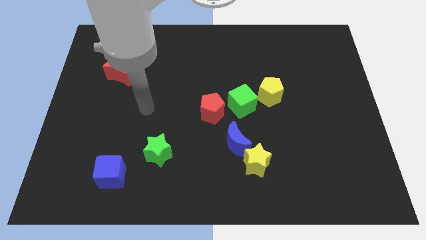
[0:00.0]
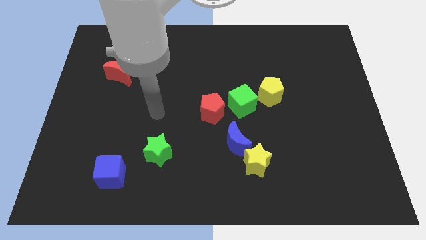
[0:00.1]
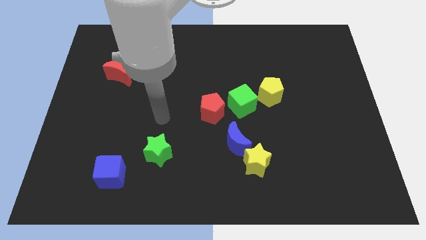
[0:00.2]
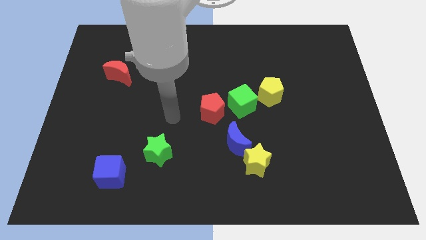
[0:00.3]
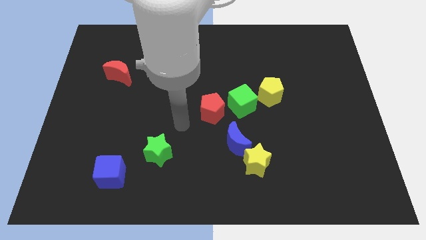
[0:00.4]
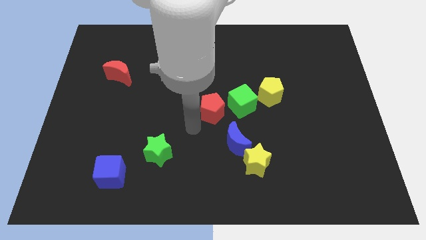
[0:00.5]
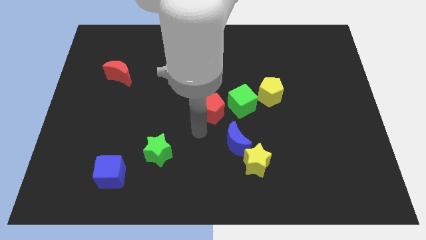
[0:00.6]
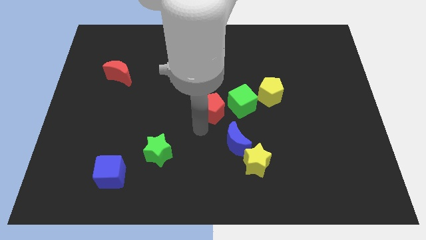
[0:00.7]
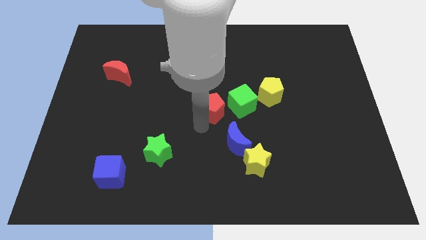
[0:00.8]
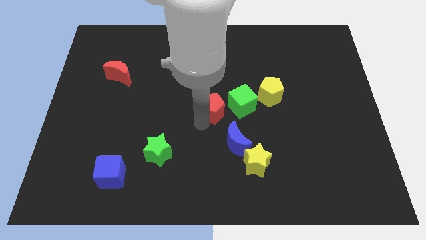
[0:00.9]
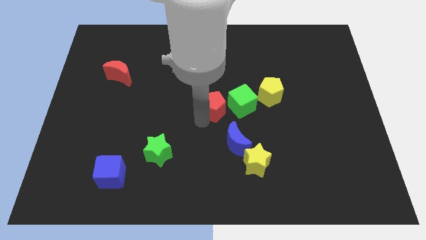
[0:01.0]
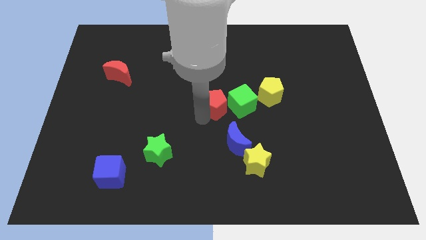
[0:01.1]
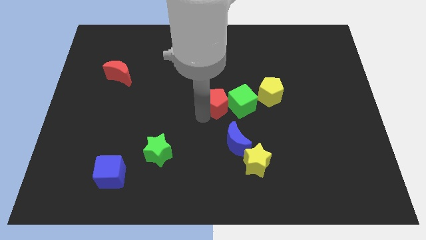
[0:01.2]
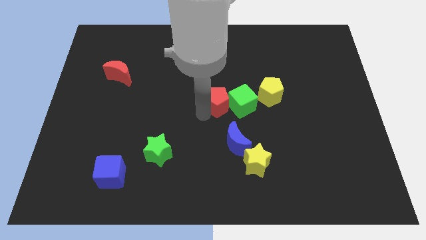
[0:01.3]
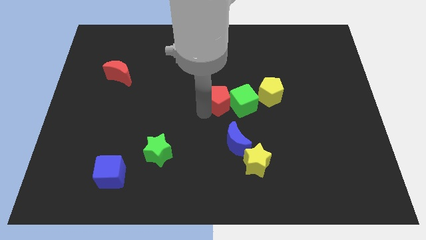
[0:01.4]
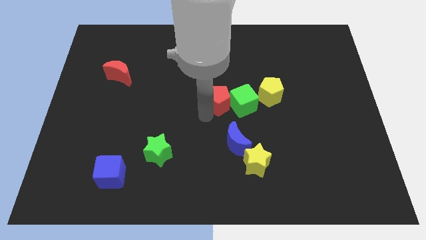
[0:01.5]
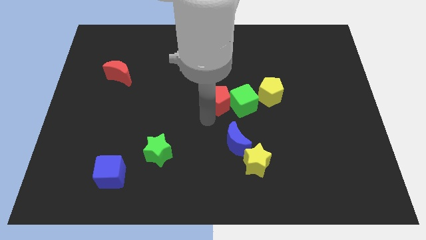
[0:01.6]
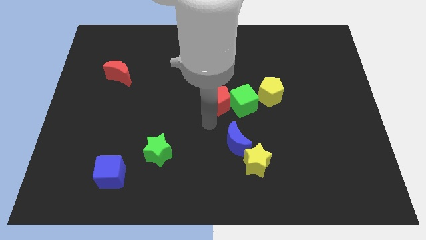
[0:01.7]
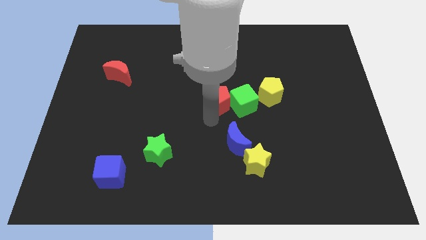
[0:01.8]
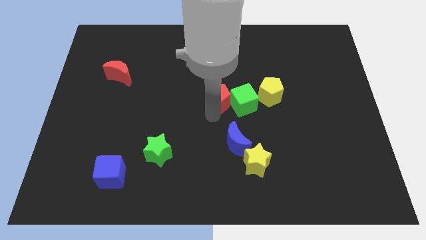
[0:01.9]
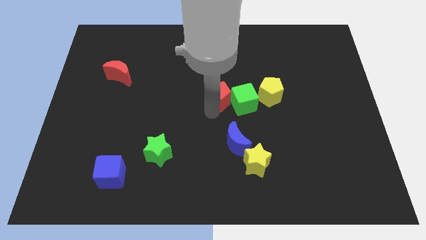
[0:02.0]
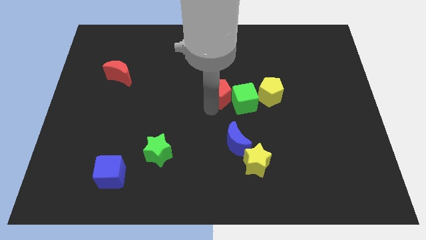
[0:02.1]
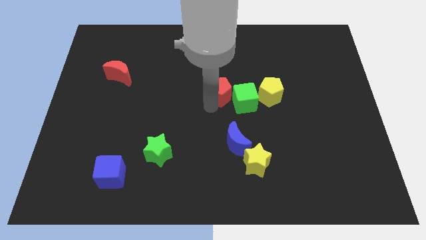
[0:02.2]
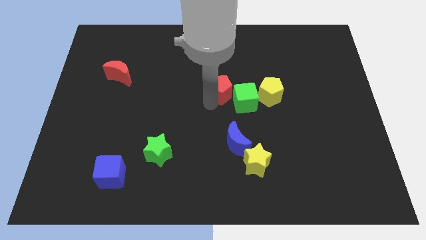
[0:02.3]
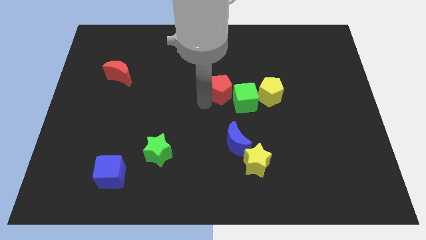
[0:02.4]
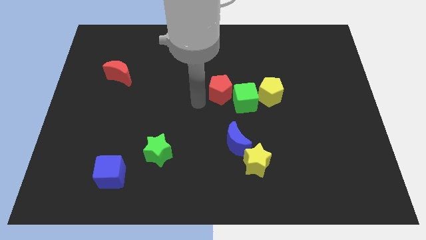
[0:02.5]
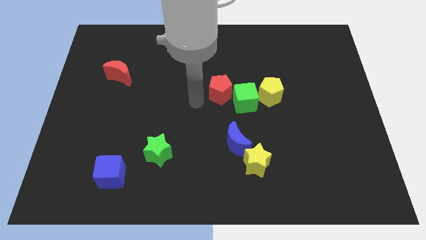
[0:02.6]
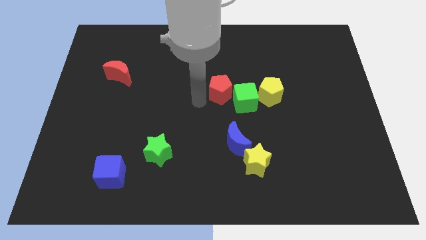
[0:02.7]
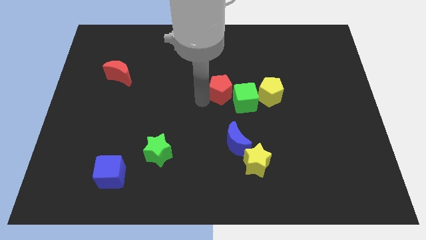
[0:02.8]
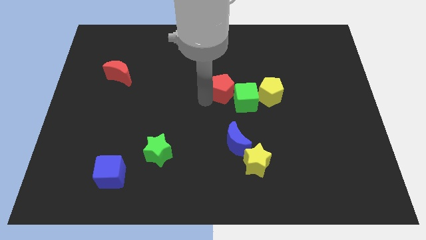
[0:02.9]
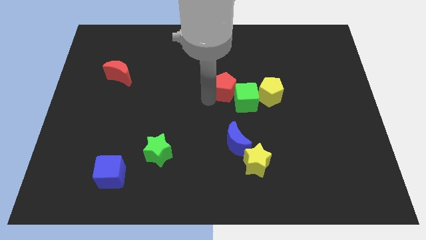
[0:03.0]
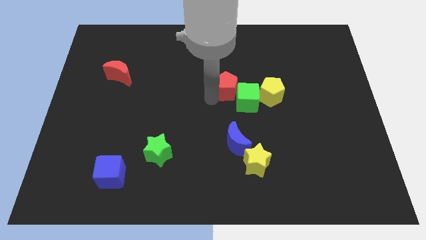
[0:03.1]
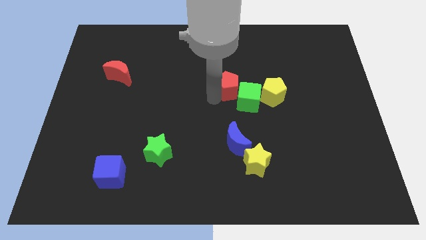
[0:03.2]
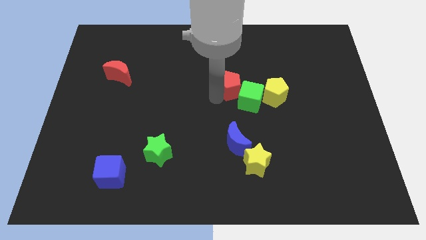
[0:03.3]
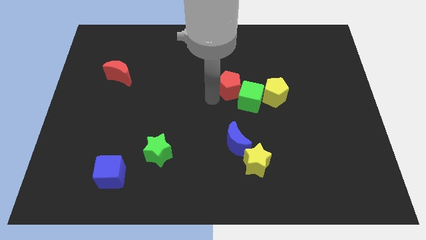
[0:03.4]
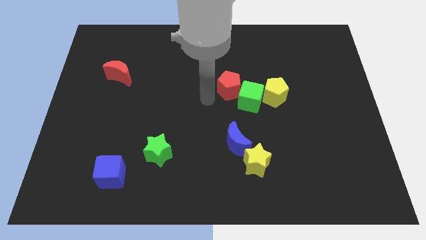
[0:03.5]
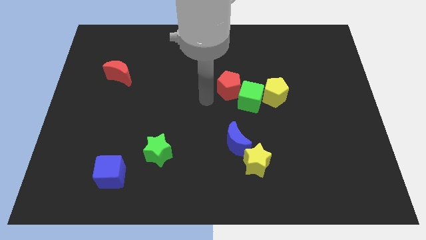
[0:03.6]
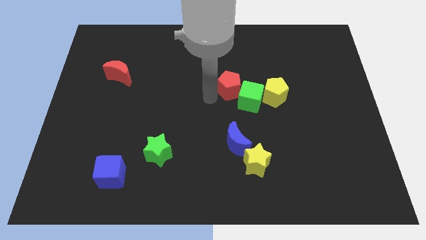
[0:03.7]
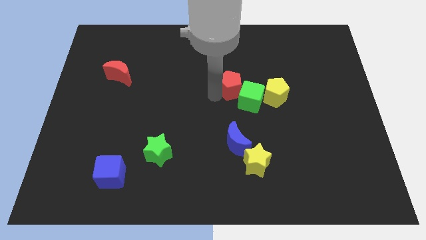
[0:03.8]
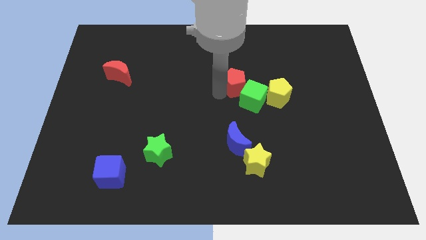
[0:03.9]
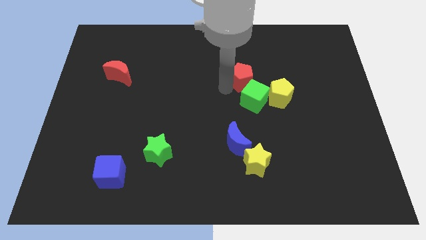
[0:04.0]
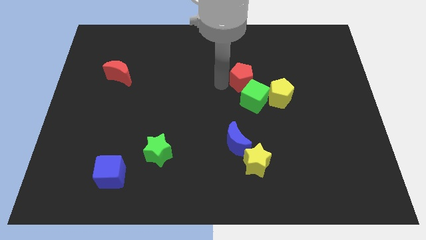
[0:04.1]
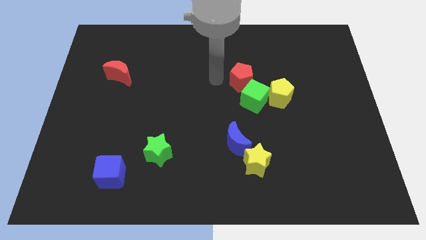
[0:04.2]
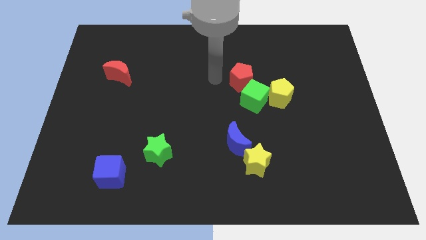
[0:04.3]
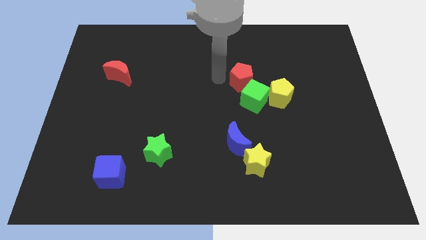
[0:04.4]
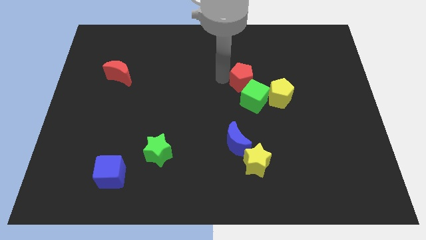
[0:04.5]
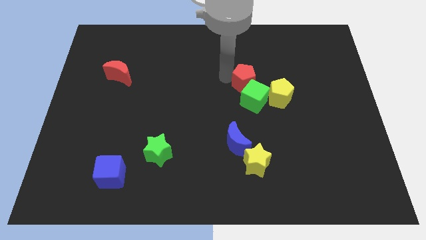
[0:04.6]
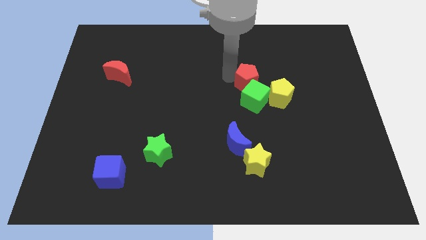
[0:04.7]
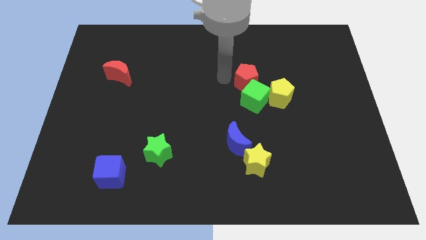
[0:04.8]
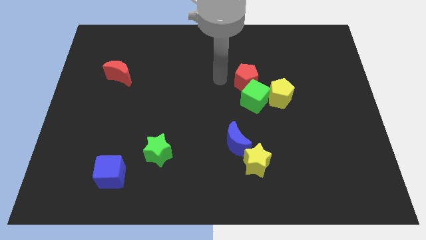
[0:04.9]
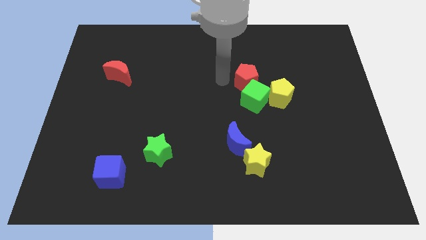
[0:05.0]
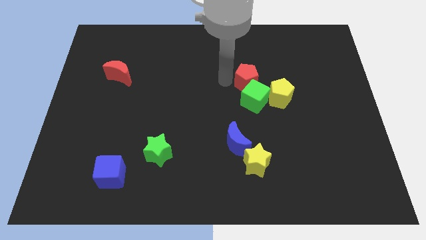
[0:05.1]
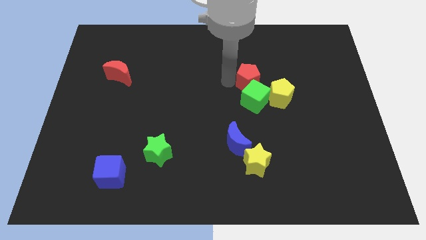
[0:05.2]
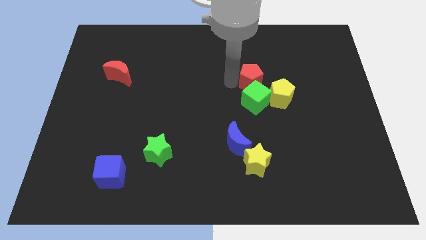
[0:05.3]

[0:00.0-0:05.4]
slide the red pentagon to the top right of the green cube

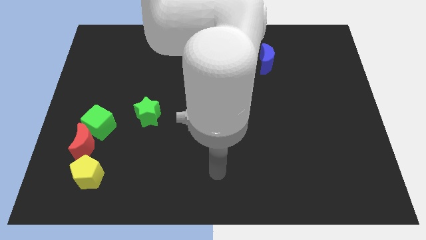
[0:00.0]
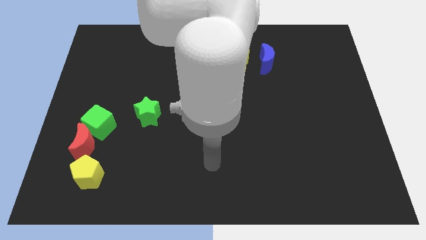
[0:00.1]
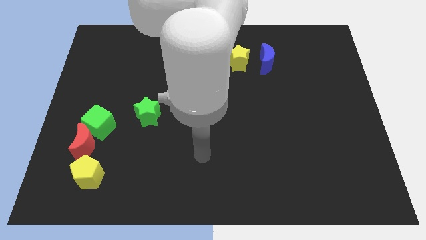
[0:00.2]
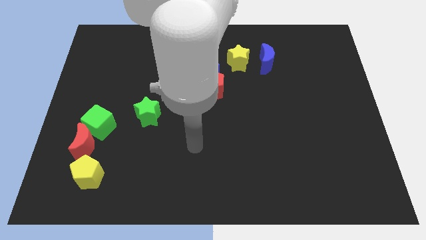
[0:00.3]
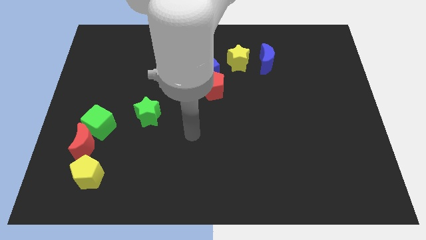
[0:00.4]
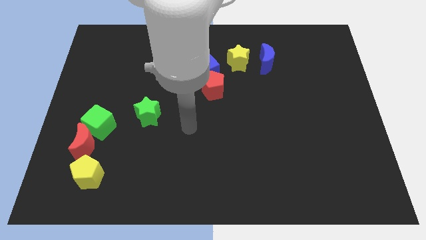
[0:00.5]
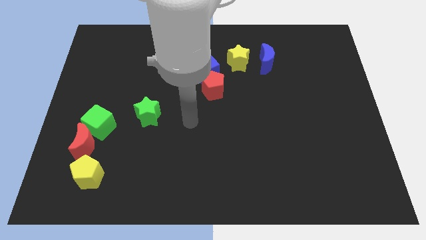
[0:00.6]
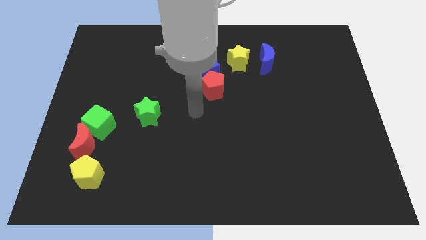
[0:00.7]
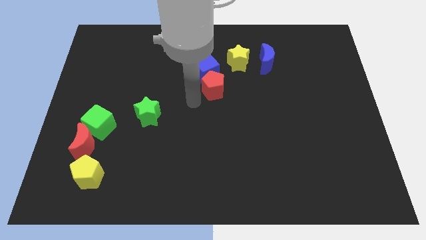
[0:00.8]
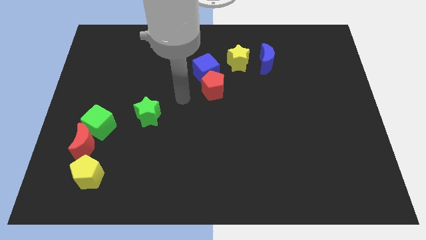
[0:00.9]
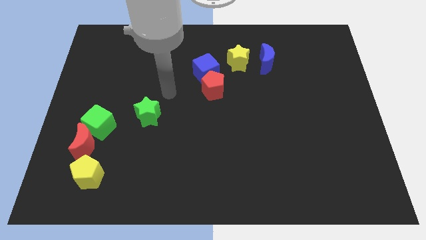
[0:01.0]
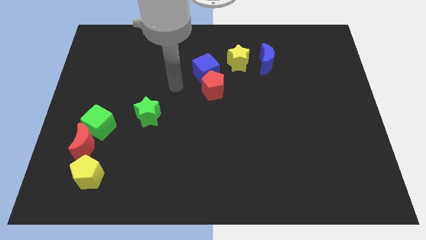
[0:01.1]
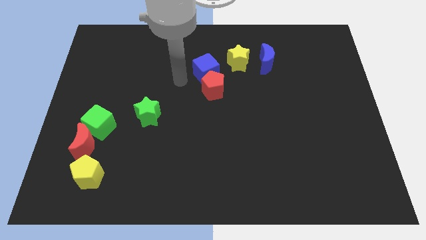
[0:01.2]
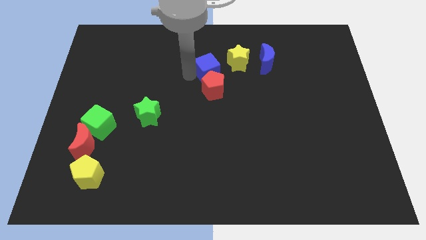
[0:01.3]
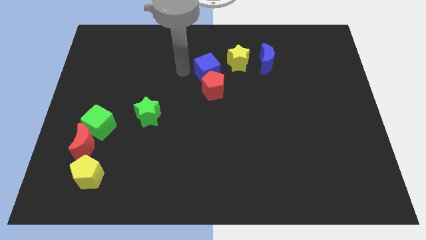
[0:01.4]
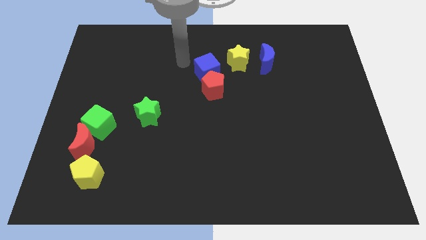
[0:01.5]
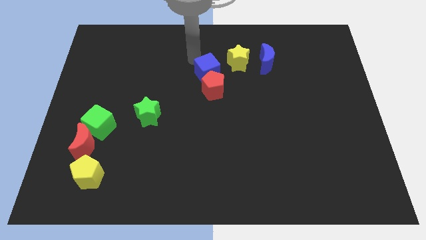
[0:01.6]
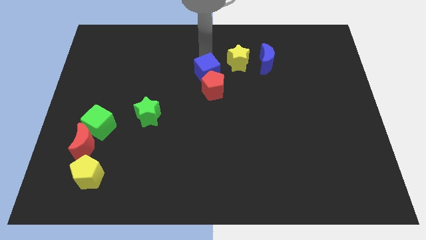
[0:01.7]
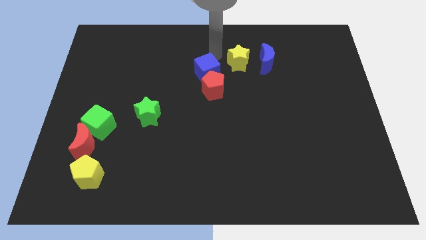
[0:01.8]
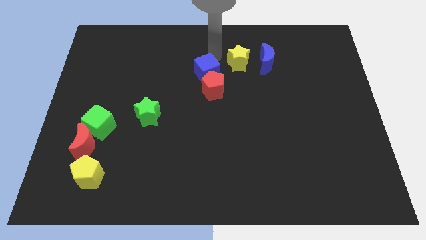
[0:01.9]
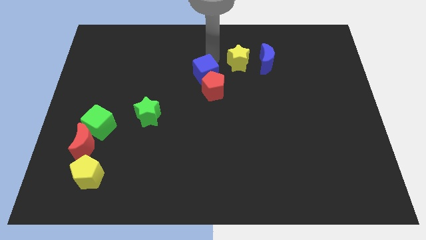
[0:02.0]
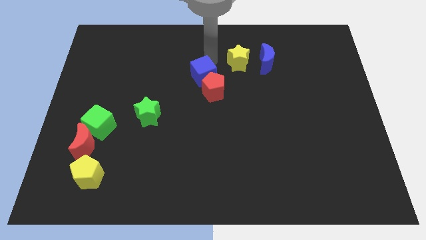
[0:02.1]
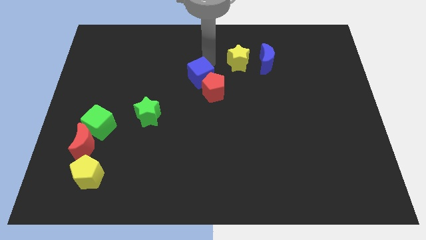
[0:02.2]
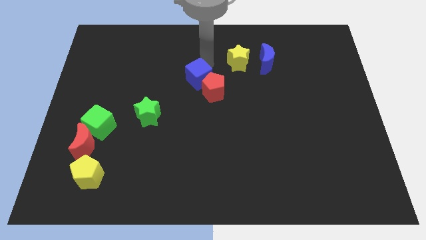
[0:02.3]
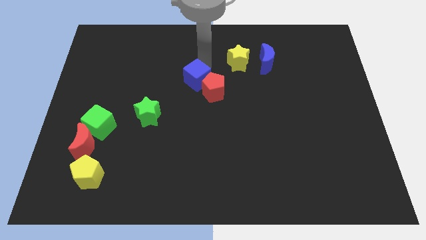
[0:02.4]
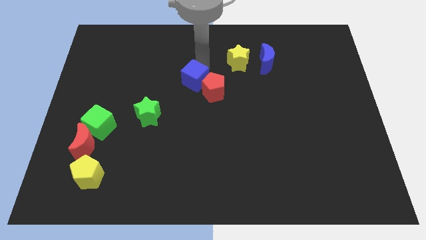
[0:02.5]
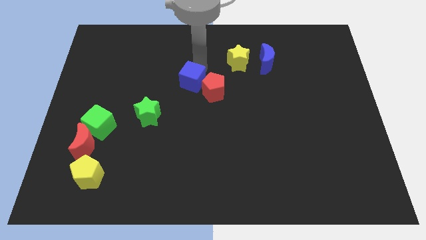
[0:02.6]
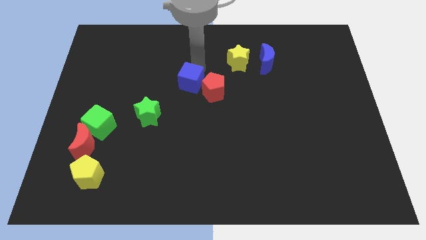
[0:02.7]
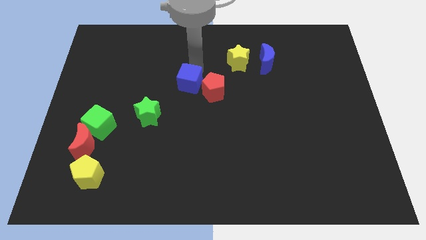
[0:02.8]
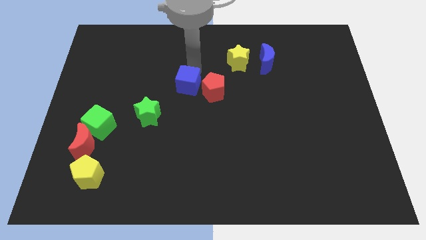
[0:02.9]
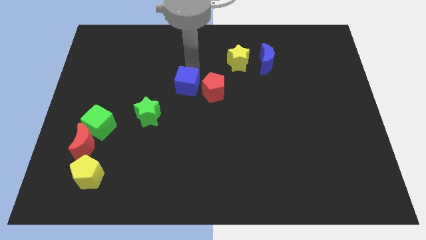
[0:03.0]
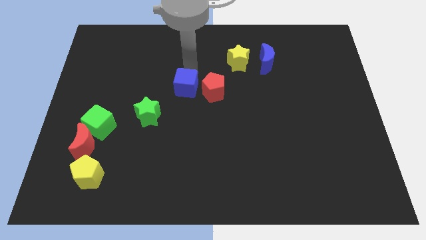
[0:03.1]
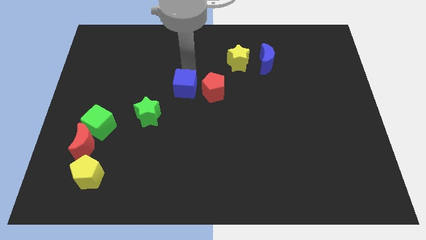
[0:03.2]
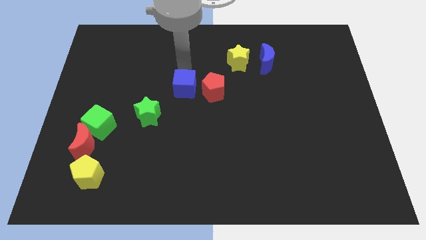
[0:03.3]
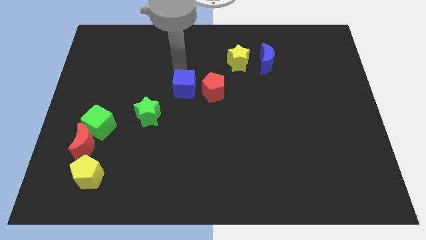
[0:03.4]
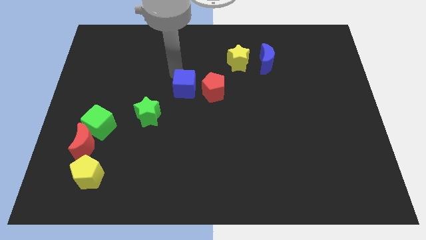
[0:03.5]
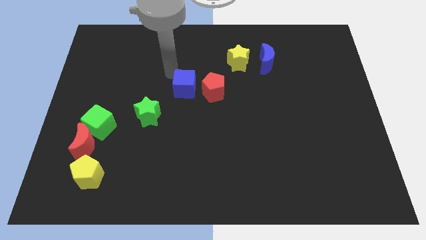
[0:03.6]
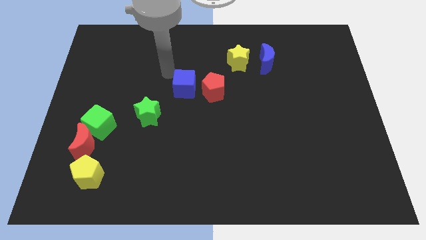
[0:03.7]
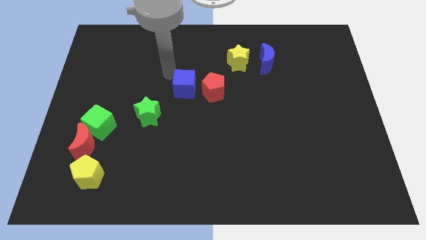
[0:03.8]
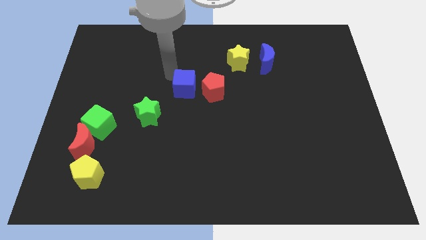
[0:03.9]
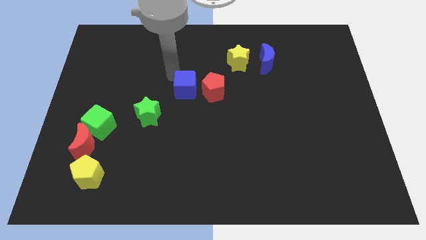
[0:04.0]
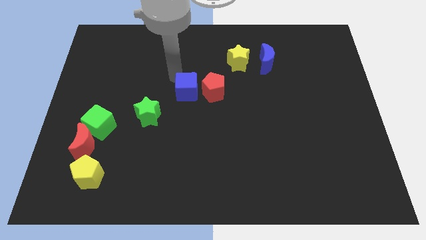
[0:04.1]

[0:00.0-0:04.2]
push the blue cube to the bottom left of the red pentagon
